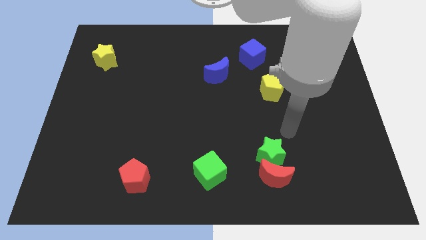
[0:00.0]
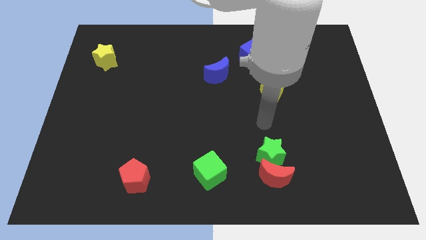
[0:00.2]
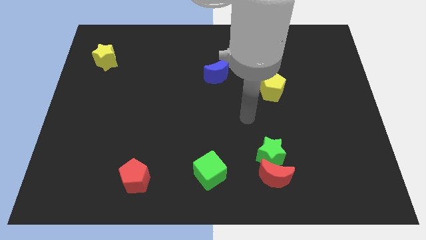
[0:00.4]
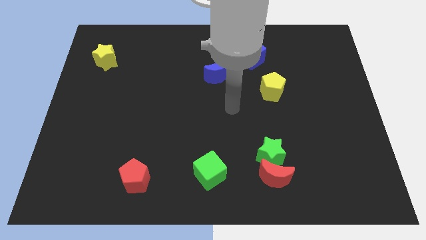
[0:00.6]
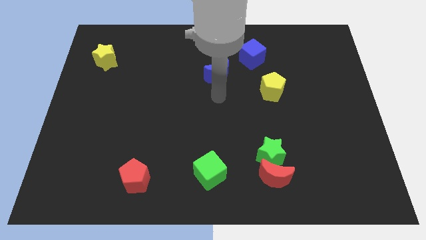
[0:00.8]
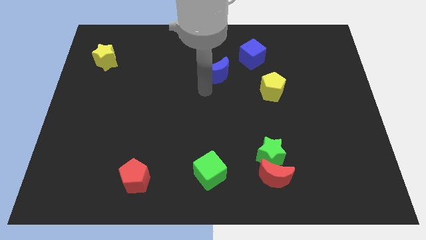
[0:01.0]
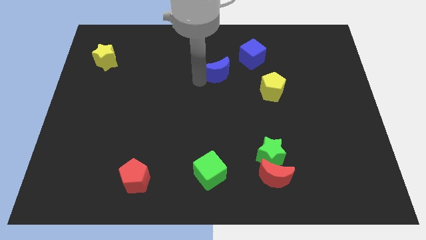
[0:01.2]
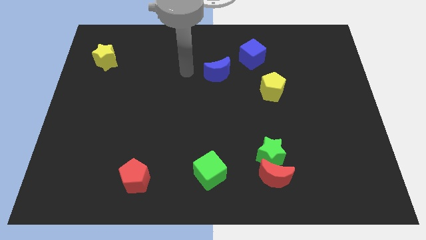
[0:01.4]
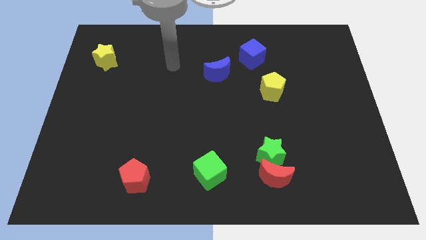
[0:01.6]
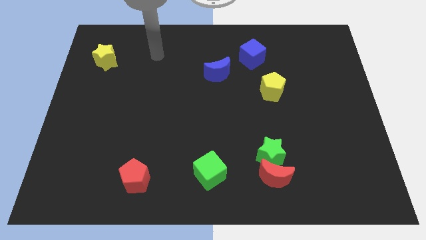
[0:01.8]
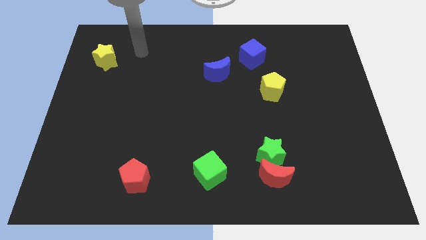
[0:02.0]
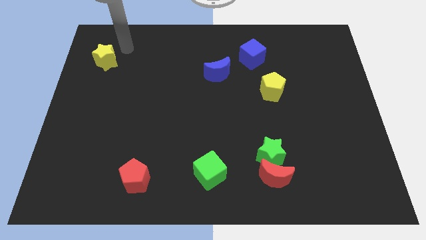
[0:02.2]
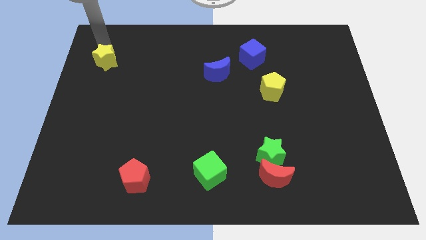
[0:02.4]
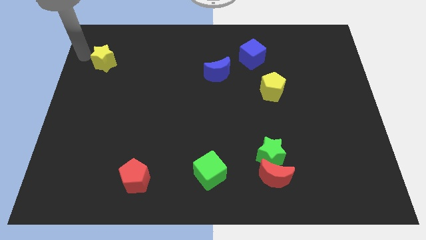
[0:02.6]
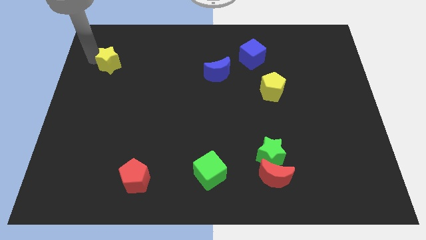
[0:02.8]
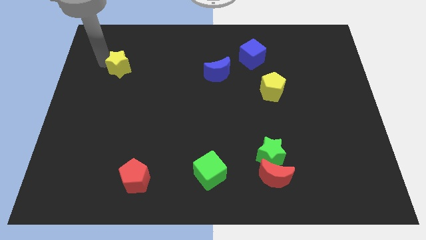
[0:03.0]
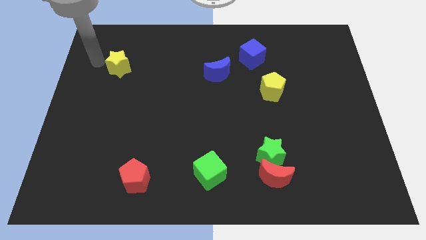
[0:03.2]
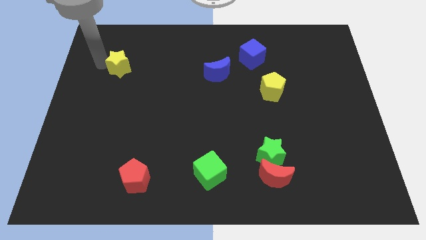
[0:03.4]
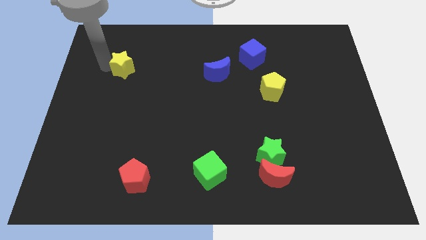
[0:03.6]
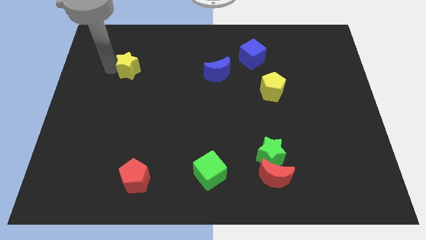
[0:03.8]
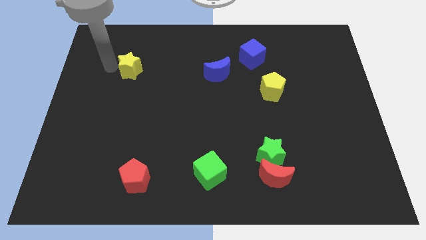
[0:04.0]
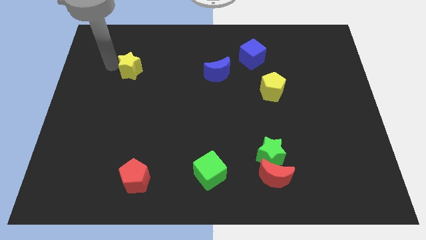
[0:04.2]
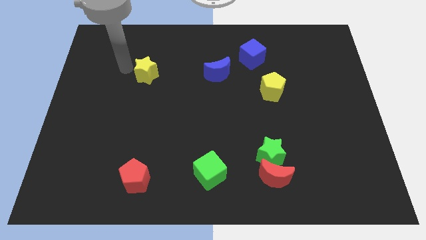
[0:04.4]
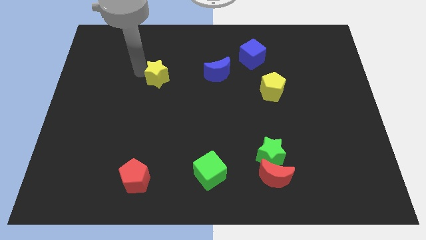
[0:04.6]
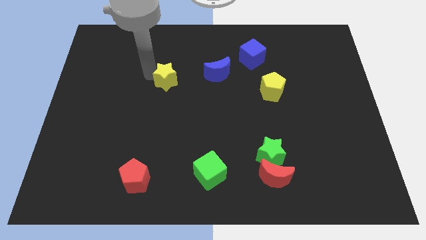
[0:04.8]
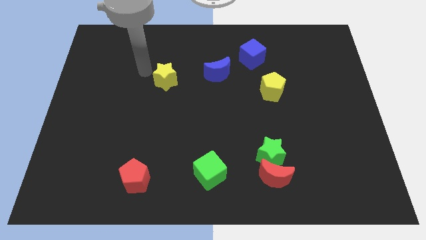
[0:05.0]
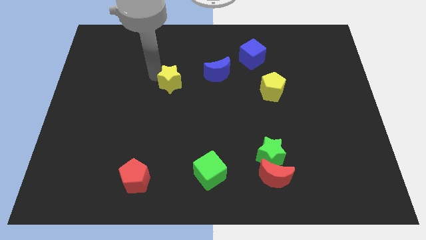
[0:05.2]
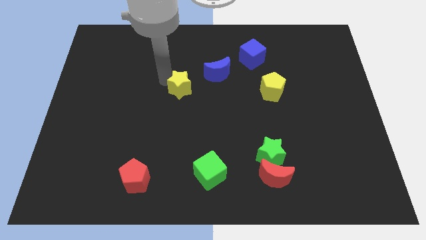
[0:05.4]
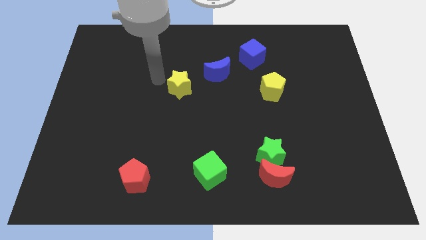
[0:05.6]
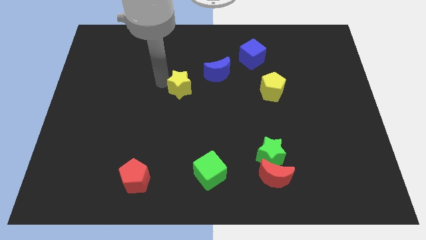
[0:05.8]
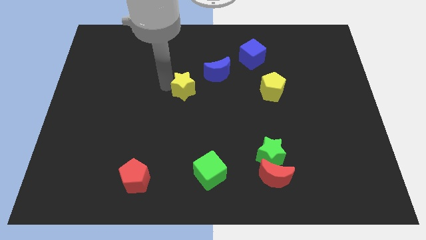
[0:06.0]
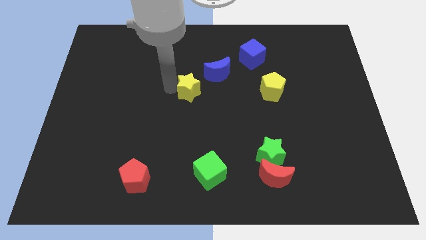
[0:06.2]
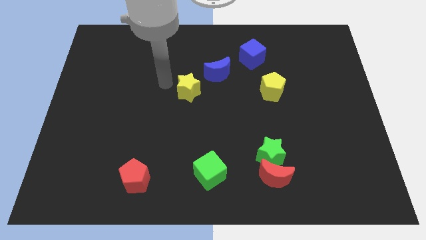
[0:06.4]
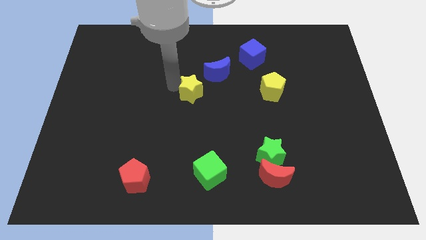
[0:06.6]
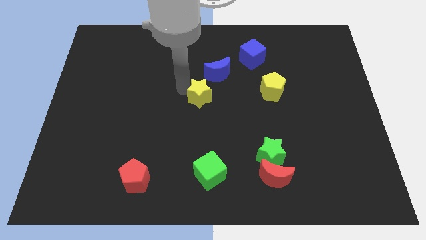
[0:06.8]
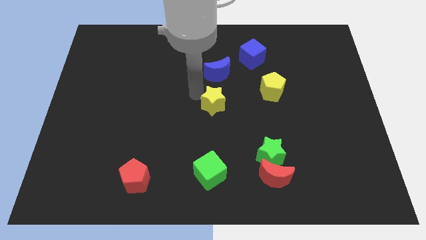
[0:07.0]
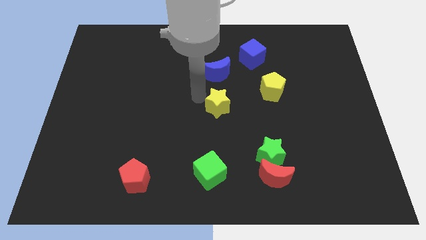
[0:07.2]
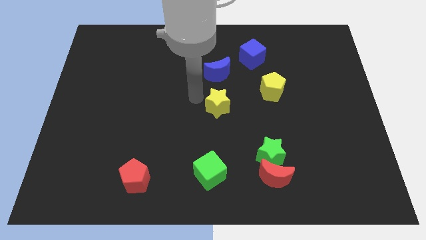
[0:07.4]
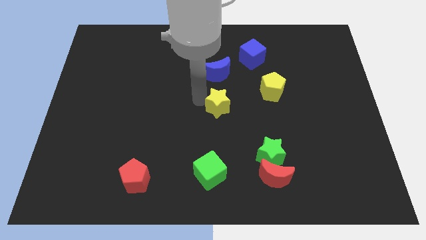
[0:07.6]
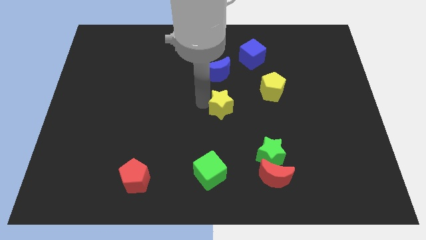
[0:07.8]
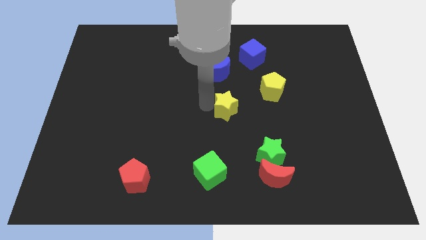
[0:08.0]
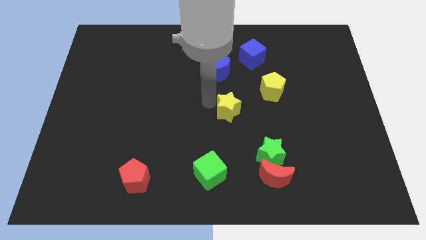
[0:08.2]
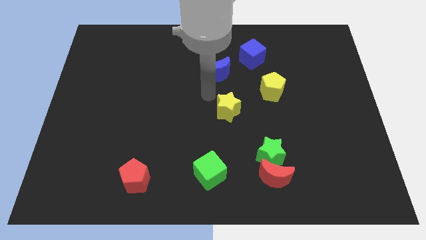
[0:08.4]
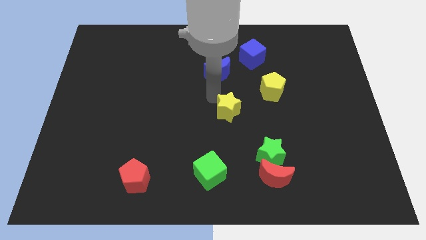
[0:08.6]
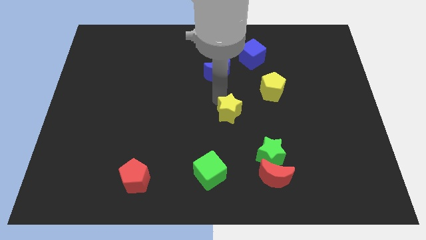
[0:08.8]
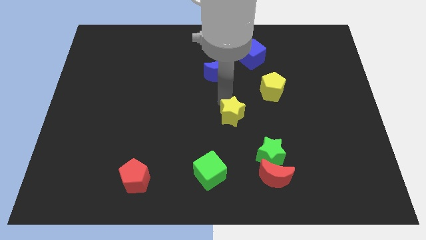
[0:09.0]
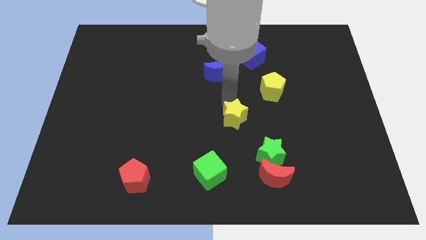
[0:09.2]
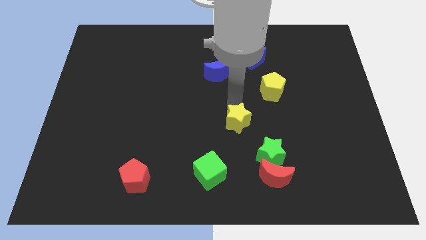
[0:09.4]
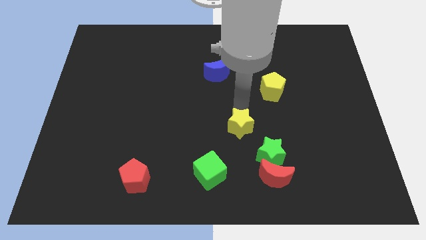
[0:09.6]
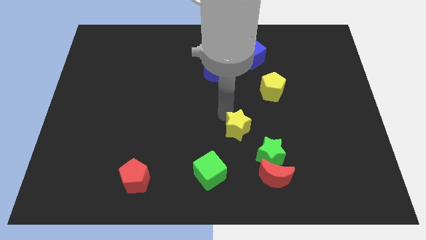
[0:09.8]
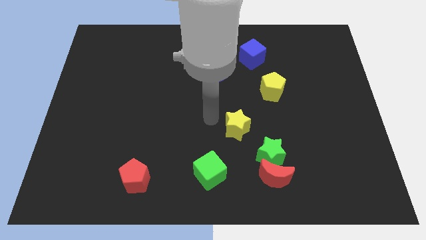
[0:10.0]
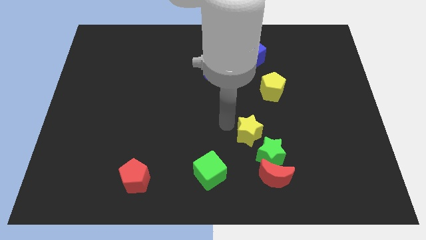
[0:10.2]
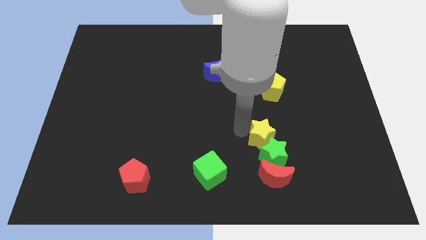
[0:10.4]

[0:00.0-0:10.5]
move the yellow star towards the green star

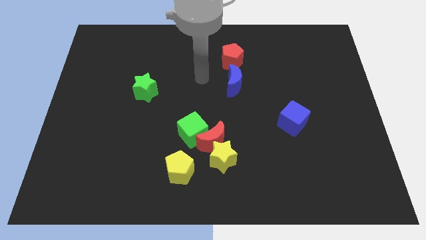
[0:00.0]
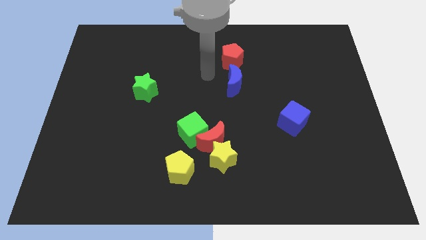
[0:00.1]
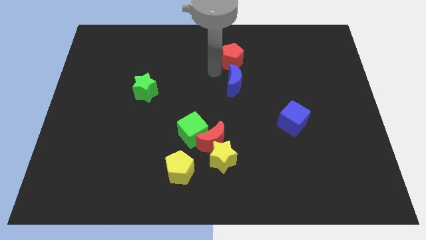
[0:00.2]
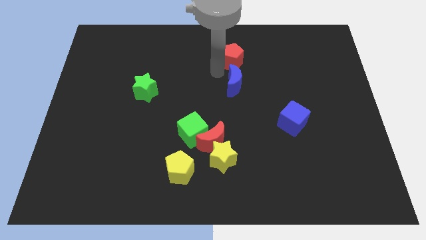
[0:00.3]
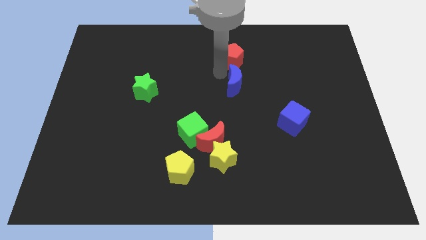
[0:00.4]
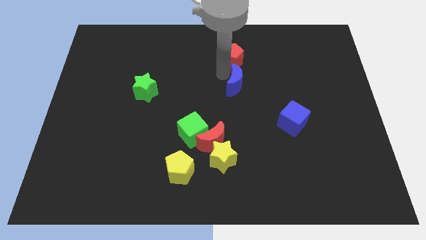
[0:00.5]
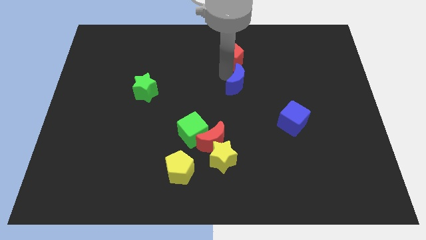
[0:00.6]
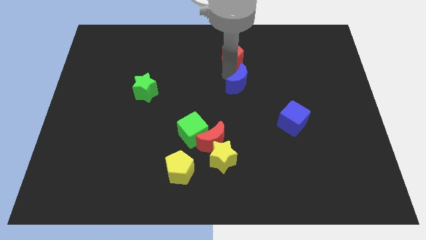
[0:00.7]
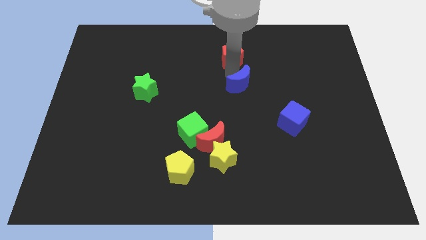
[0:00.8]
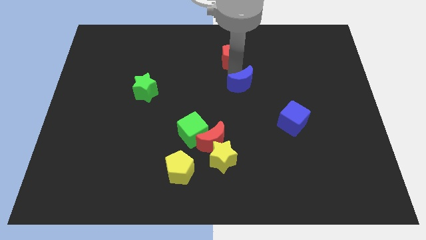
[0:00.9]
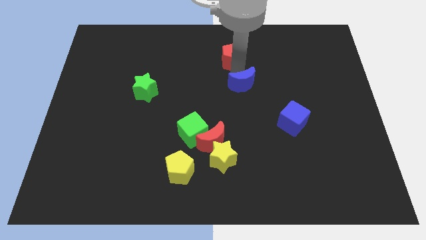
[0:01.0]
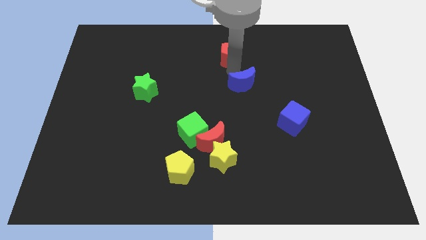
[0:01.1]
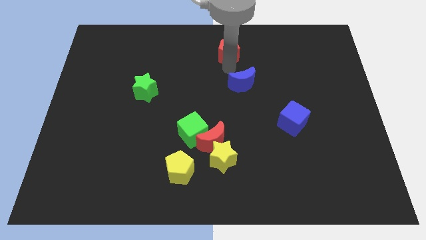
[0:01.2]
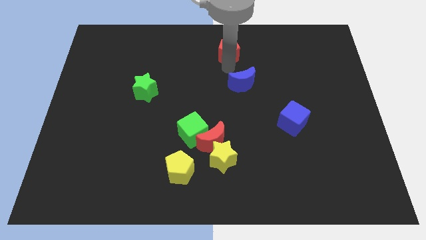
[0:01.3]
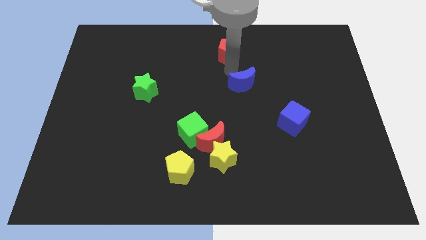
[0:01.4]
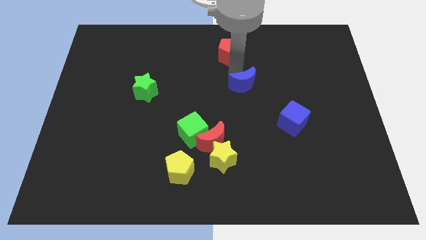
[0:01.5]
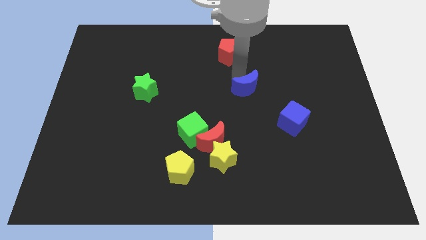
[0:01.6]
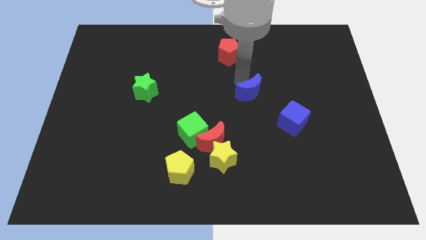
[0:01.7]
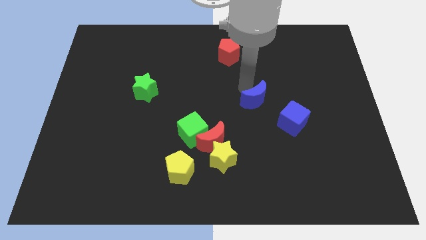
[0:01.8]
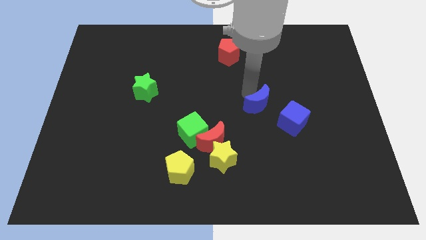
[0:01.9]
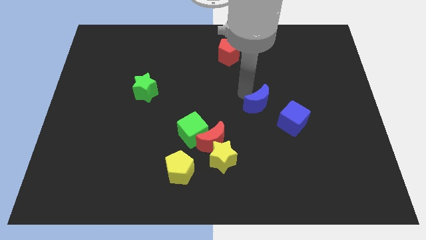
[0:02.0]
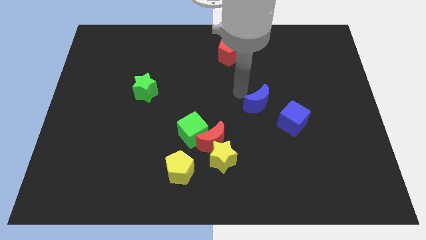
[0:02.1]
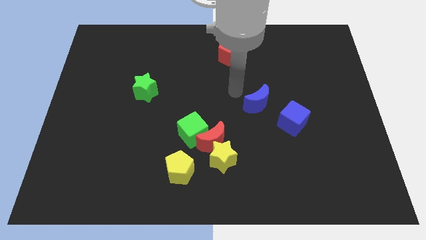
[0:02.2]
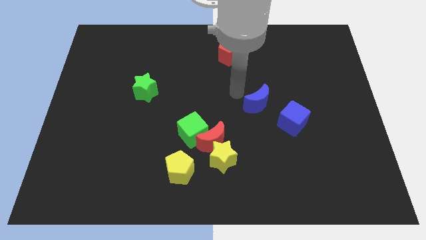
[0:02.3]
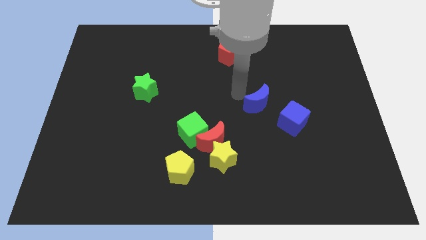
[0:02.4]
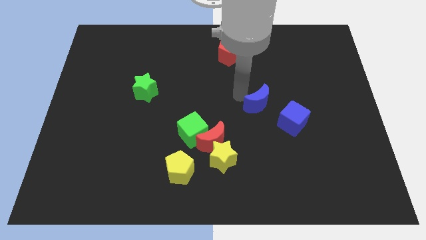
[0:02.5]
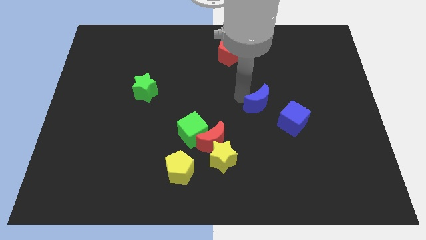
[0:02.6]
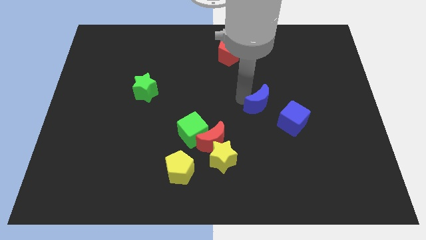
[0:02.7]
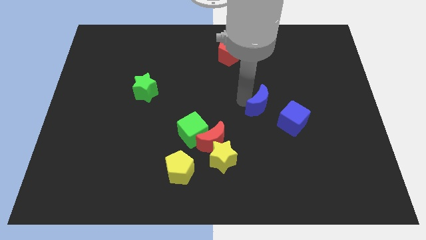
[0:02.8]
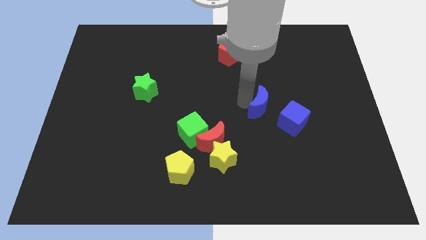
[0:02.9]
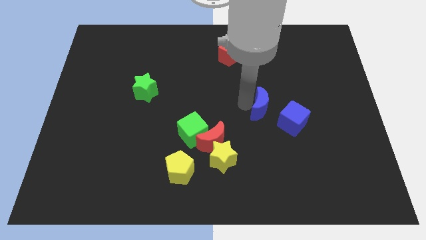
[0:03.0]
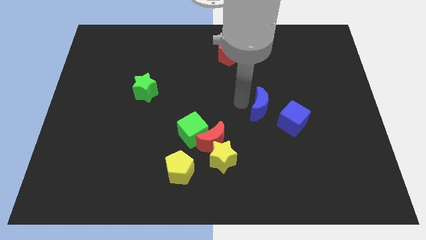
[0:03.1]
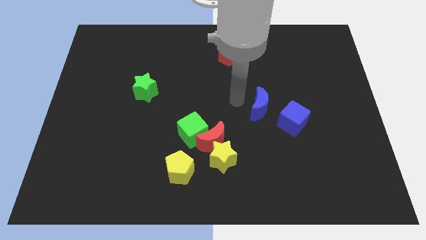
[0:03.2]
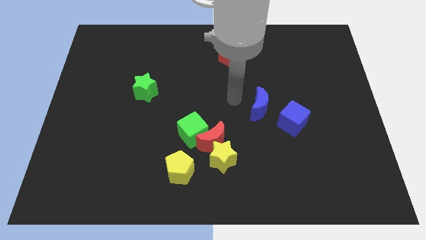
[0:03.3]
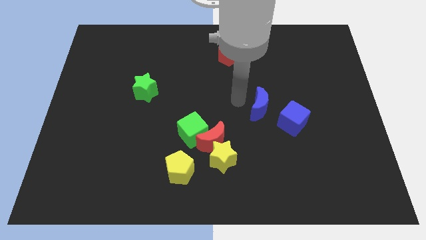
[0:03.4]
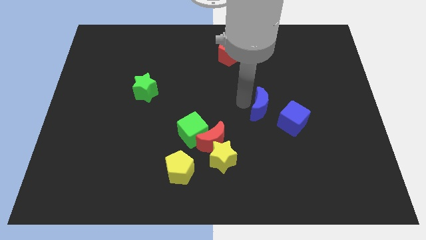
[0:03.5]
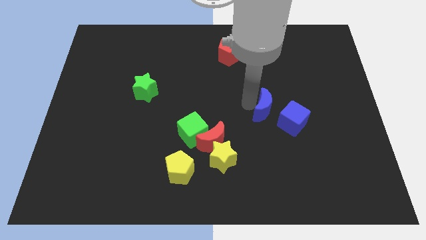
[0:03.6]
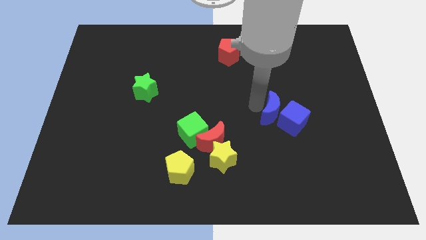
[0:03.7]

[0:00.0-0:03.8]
push the blue moon close to the blue cube
